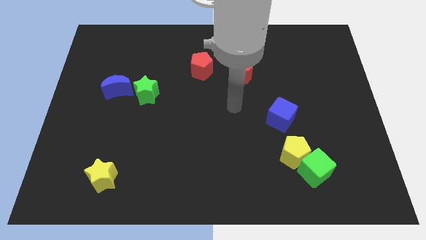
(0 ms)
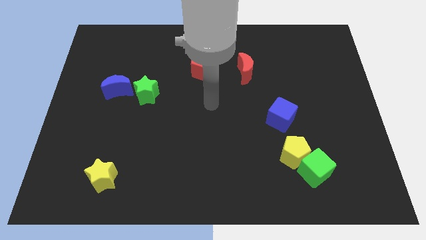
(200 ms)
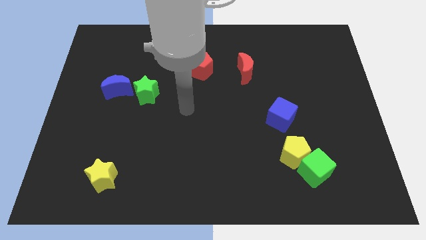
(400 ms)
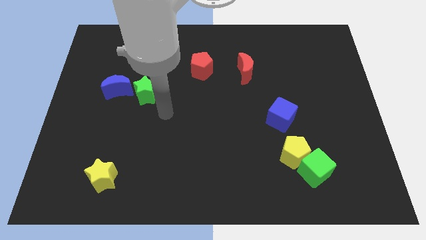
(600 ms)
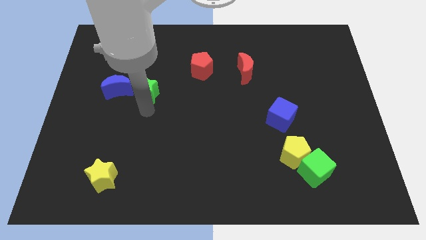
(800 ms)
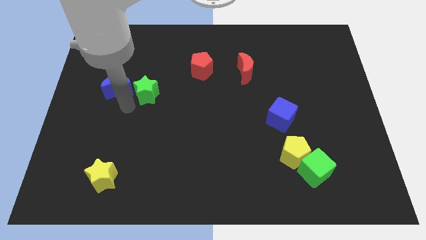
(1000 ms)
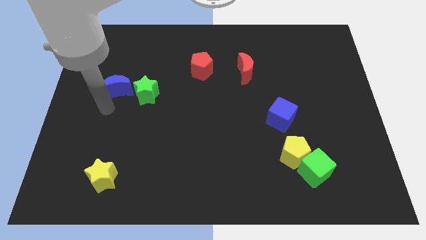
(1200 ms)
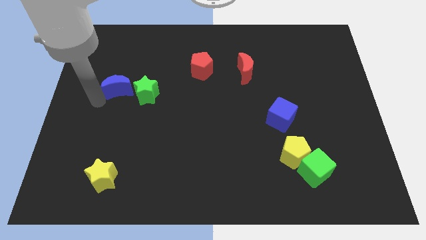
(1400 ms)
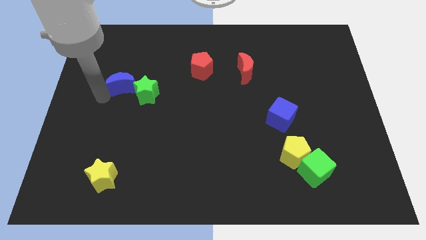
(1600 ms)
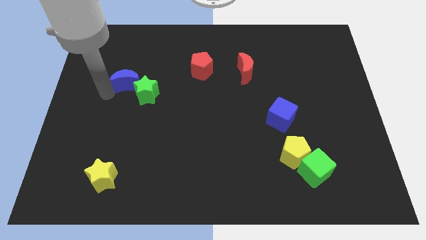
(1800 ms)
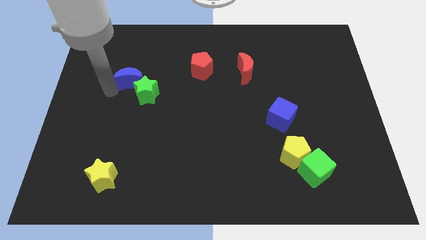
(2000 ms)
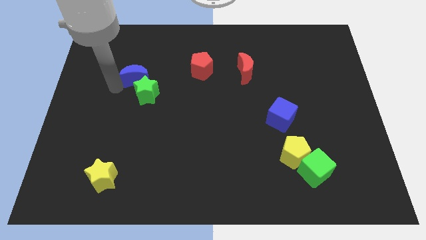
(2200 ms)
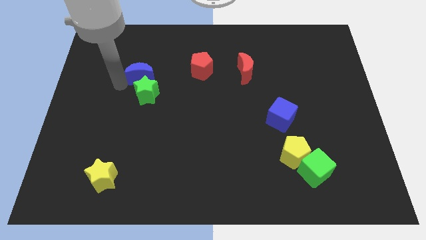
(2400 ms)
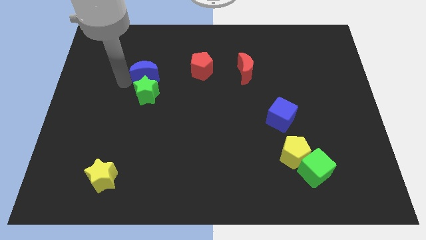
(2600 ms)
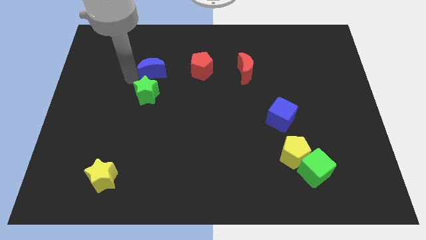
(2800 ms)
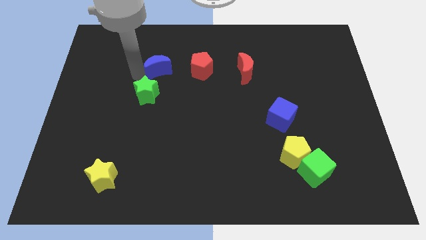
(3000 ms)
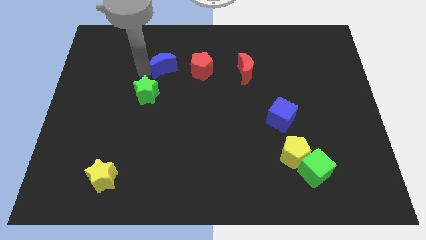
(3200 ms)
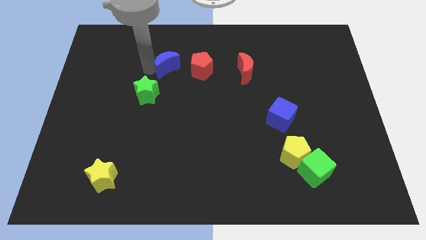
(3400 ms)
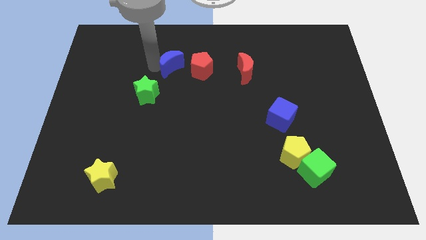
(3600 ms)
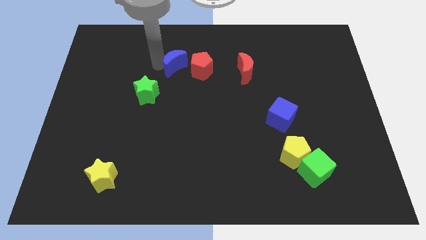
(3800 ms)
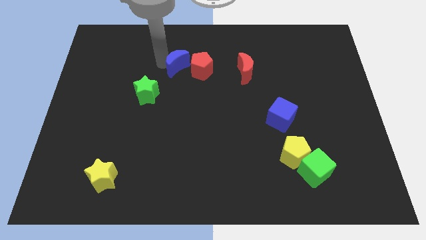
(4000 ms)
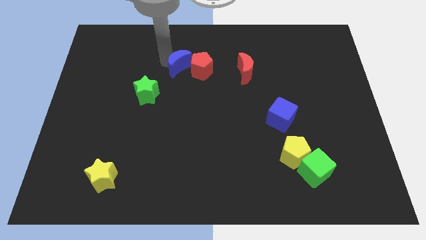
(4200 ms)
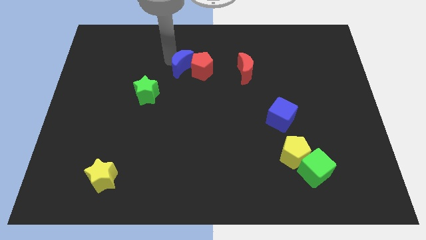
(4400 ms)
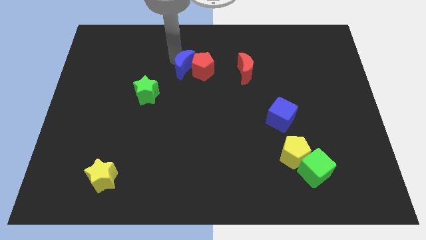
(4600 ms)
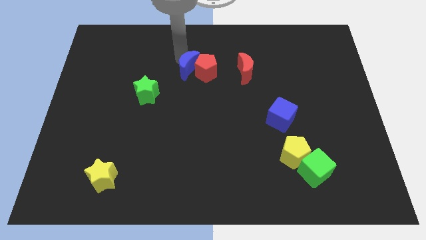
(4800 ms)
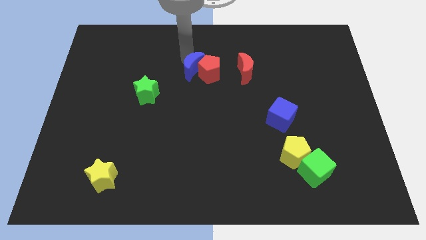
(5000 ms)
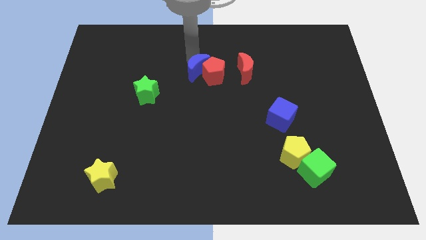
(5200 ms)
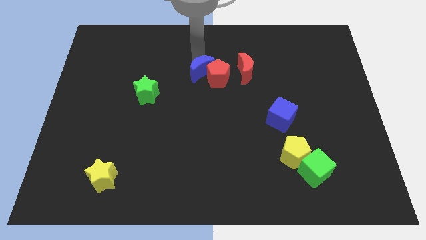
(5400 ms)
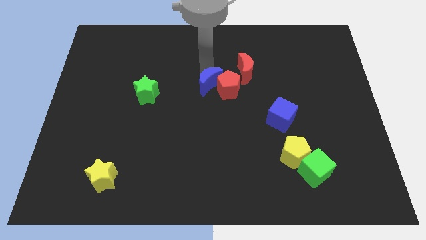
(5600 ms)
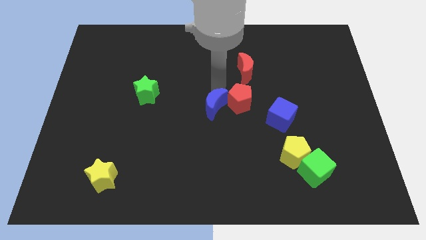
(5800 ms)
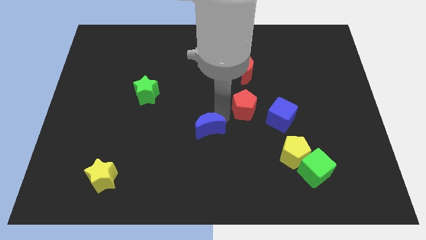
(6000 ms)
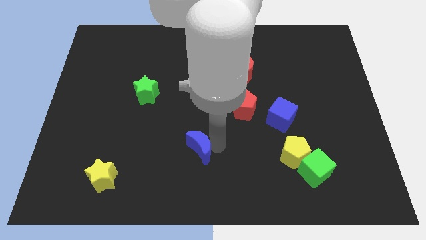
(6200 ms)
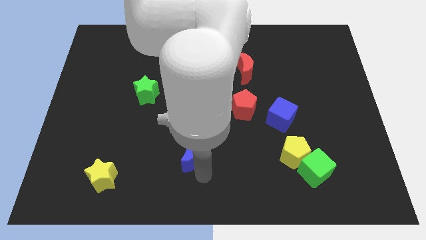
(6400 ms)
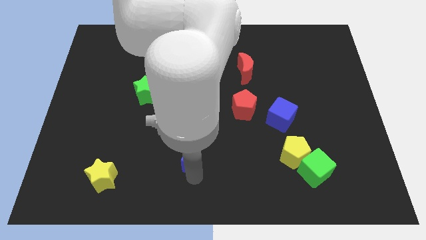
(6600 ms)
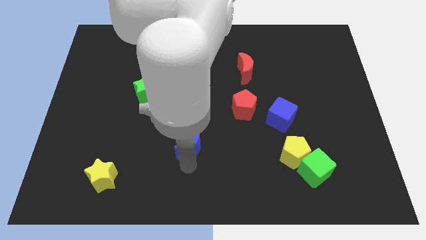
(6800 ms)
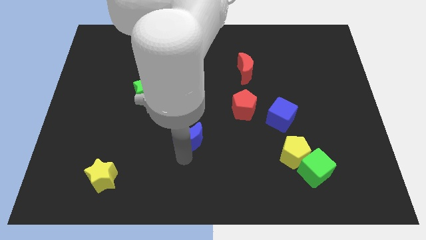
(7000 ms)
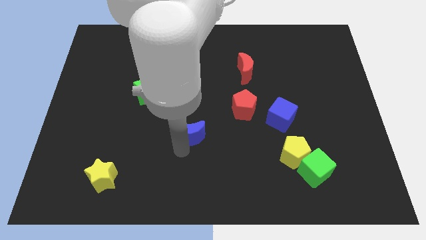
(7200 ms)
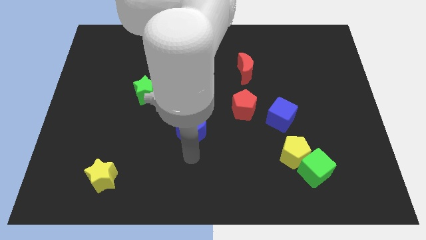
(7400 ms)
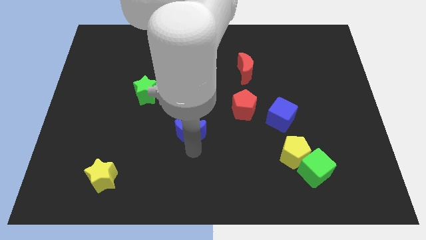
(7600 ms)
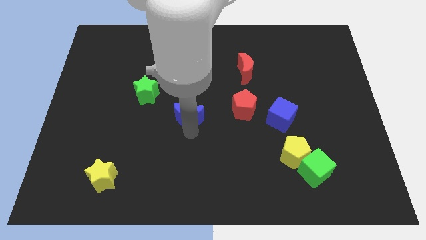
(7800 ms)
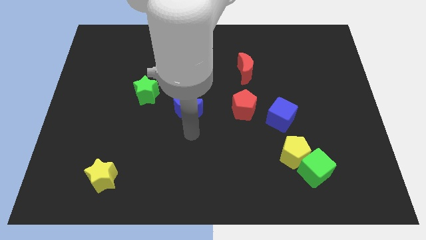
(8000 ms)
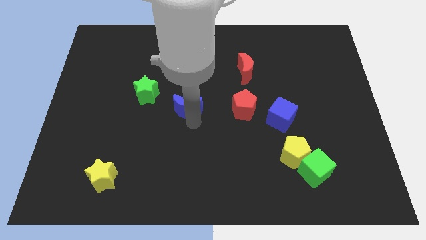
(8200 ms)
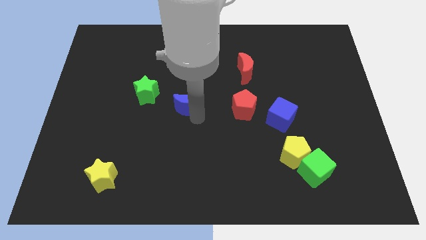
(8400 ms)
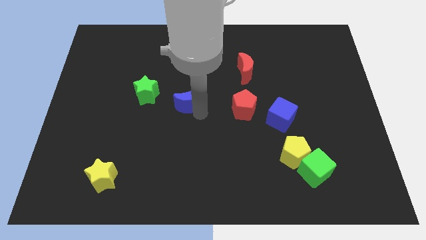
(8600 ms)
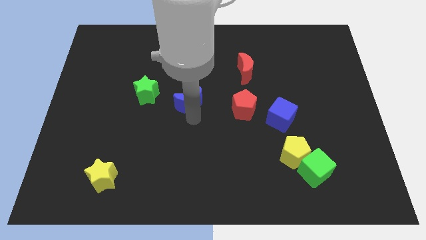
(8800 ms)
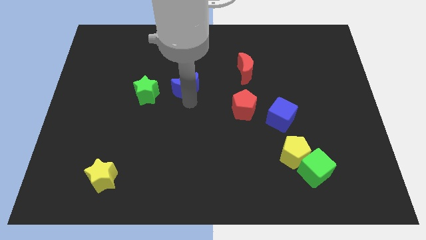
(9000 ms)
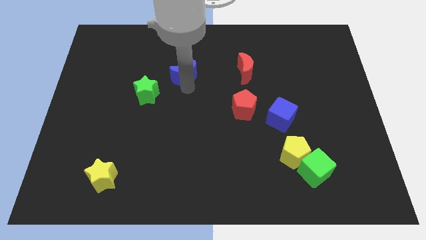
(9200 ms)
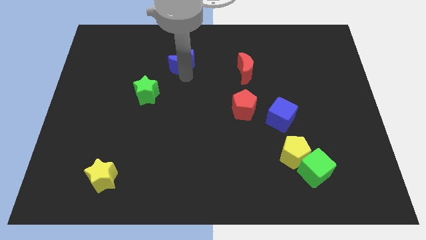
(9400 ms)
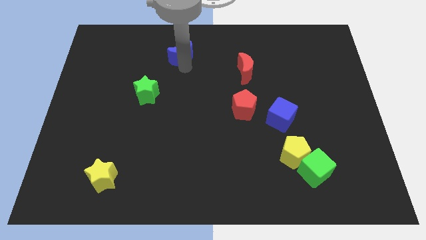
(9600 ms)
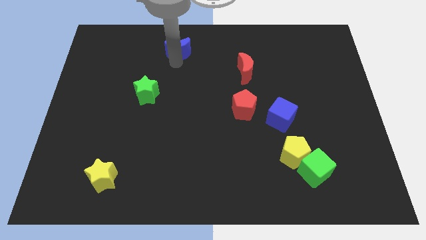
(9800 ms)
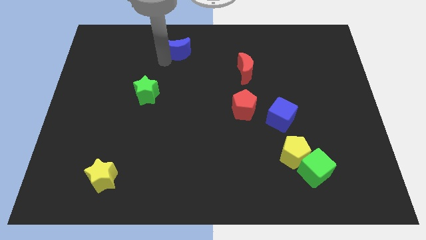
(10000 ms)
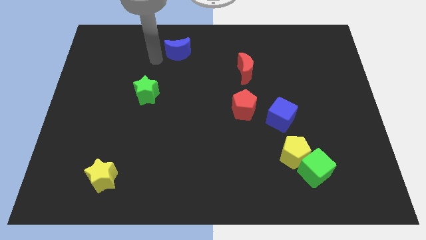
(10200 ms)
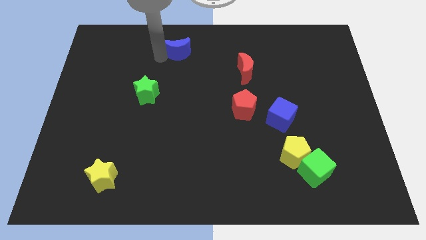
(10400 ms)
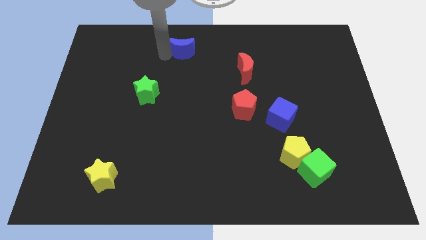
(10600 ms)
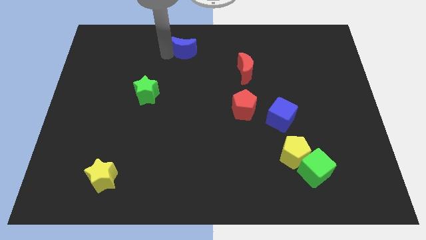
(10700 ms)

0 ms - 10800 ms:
move the blue moon to the top side
